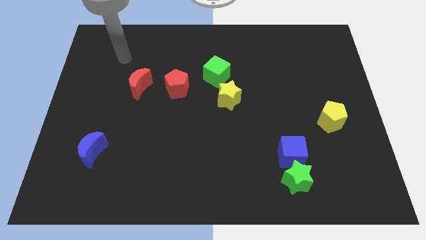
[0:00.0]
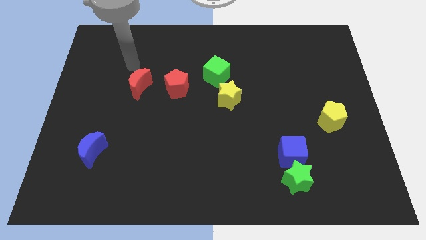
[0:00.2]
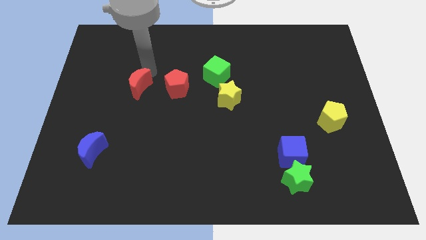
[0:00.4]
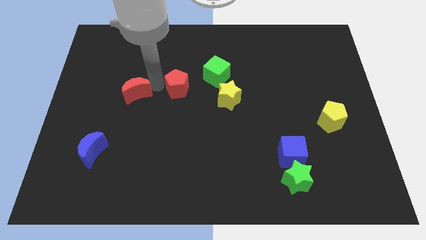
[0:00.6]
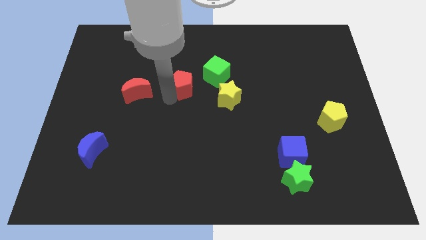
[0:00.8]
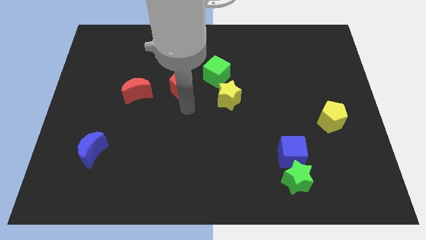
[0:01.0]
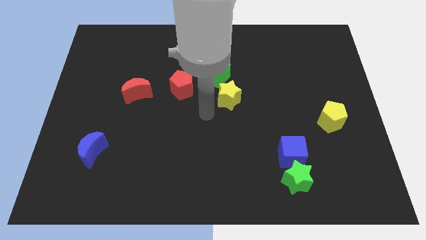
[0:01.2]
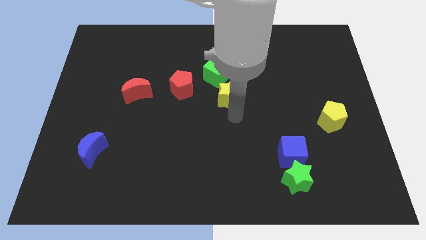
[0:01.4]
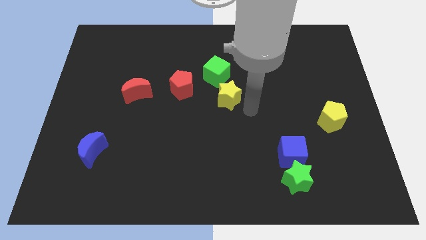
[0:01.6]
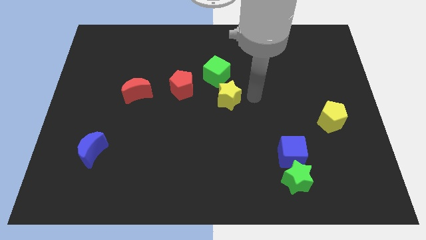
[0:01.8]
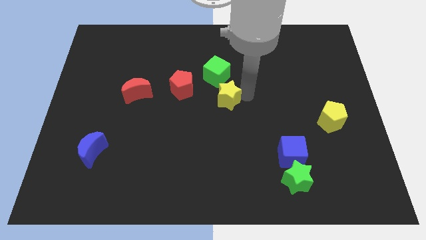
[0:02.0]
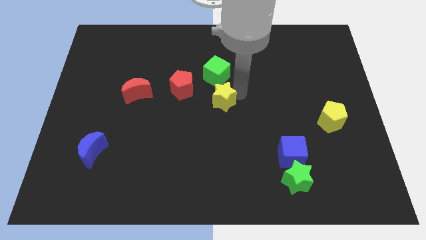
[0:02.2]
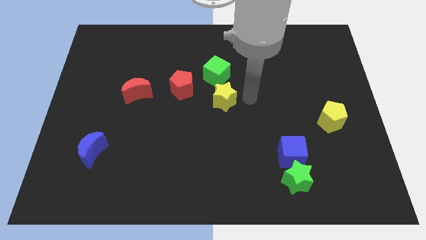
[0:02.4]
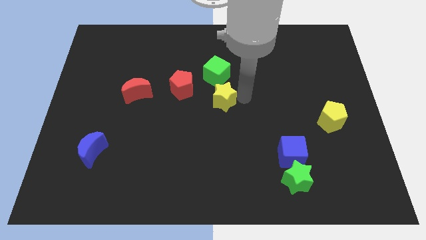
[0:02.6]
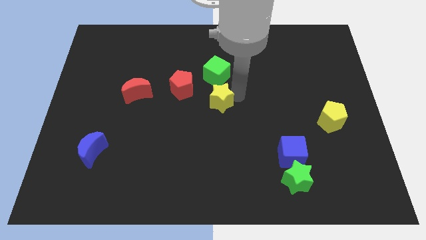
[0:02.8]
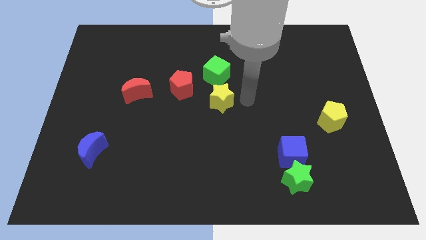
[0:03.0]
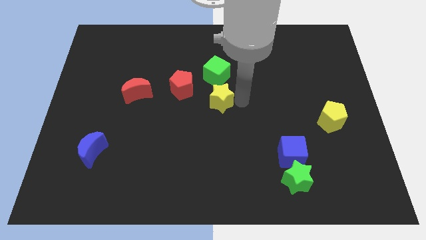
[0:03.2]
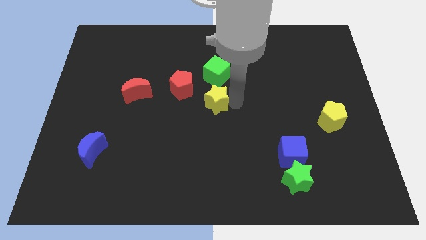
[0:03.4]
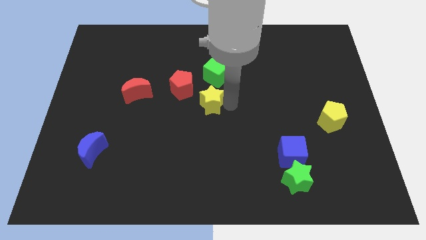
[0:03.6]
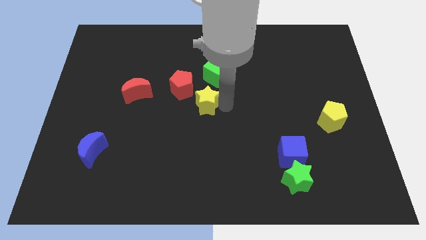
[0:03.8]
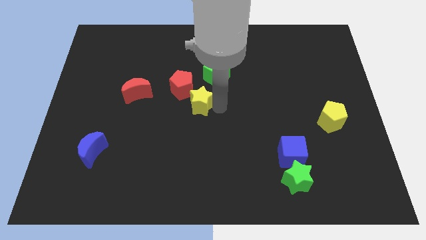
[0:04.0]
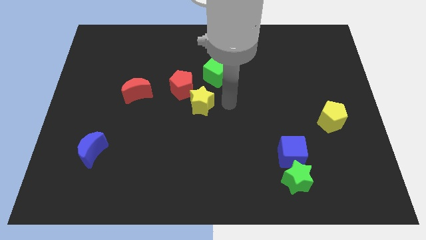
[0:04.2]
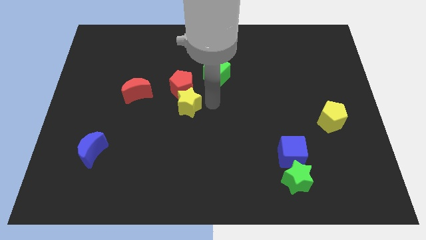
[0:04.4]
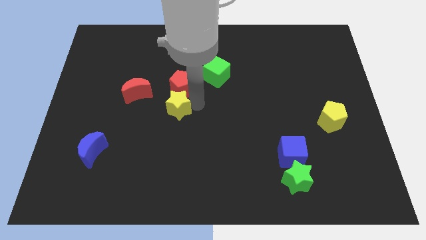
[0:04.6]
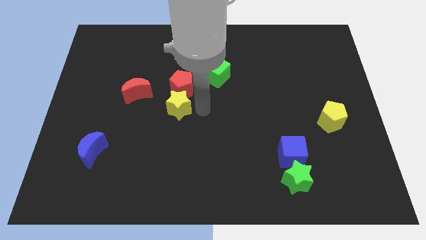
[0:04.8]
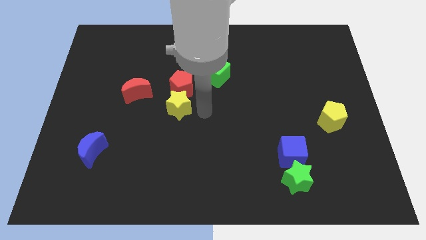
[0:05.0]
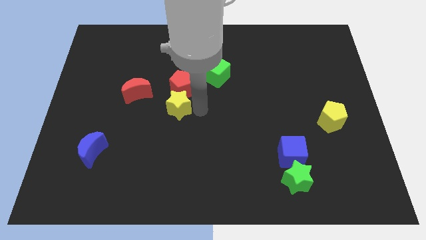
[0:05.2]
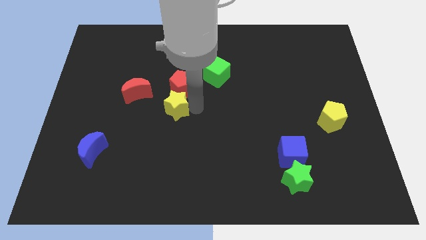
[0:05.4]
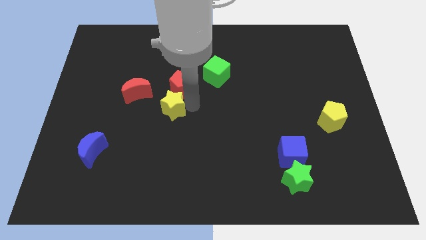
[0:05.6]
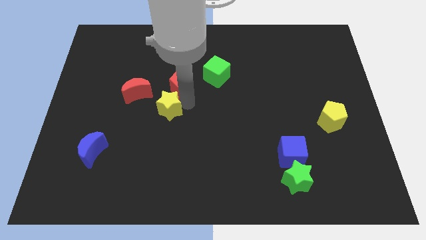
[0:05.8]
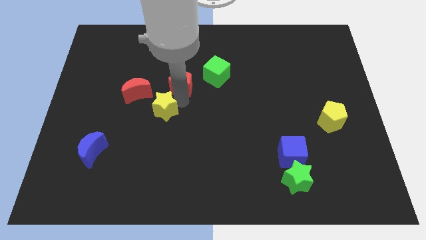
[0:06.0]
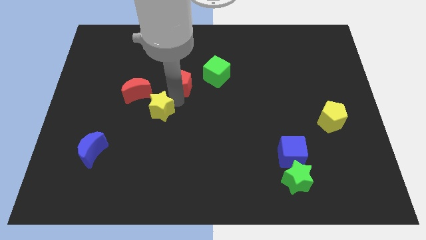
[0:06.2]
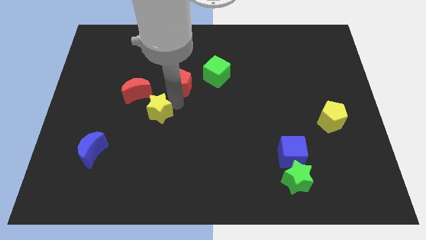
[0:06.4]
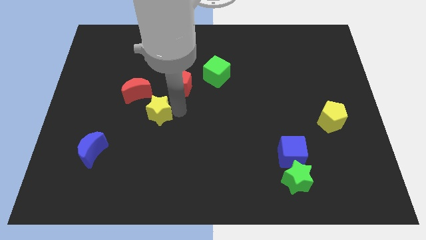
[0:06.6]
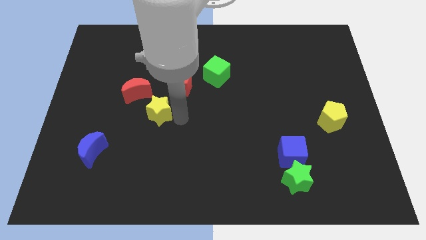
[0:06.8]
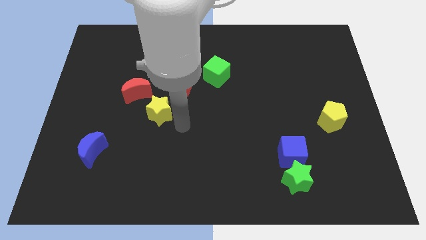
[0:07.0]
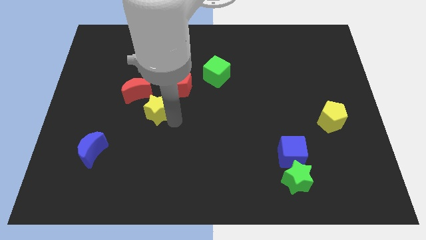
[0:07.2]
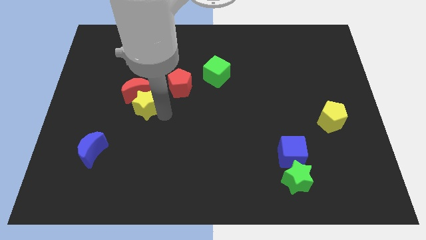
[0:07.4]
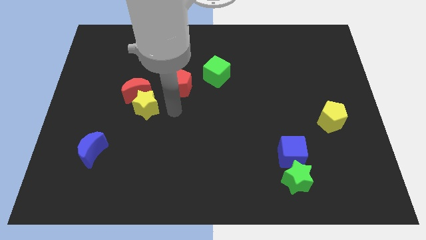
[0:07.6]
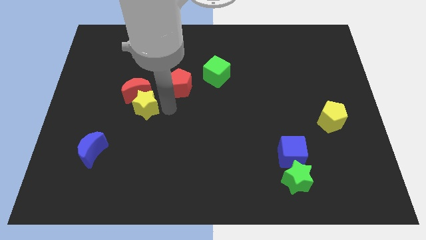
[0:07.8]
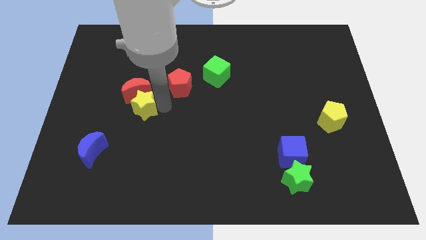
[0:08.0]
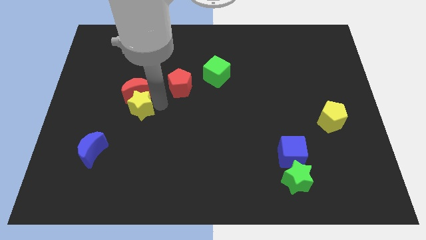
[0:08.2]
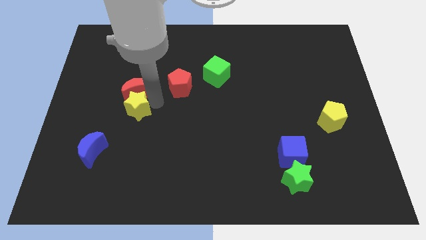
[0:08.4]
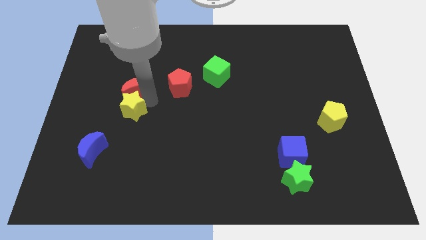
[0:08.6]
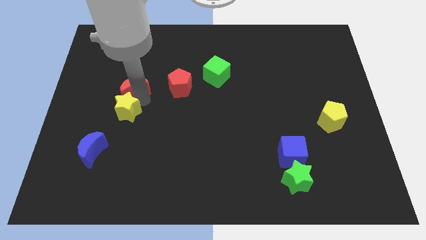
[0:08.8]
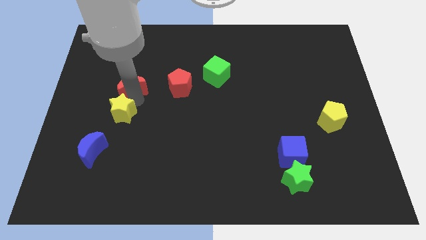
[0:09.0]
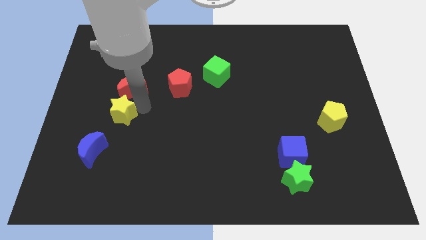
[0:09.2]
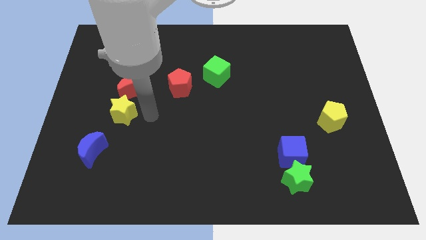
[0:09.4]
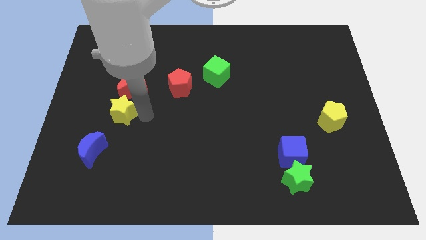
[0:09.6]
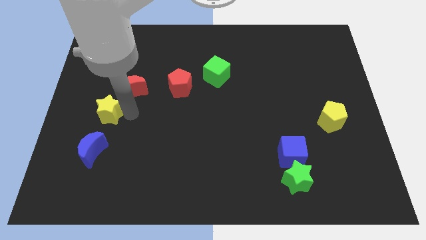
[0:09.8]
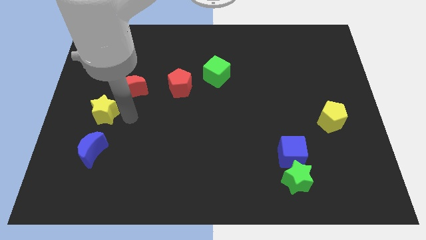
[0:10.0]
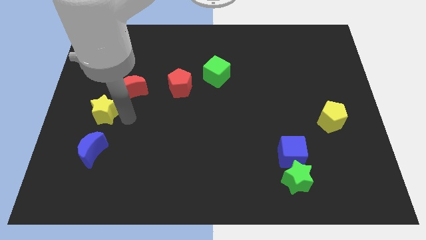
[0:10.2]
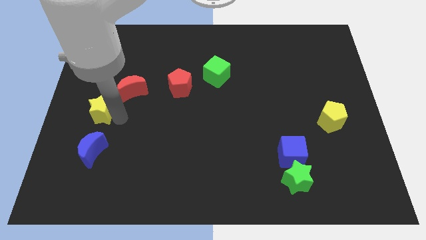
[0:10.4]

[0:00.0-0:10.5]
move the yellow star to the left side of the board

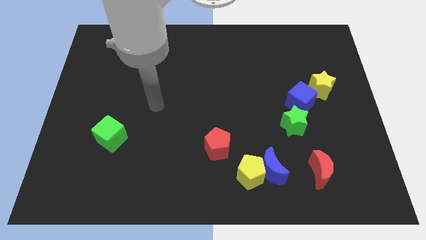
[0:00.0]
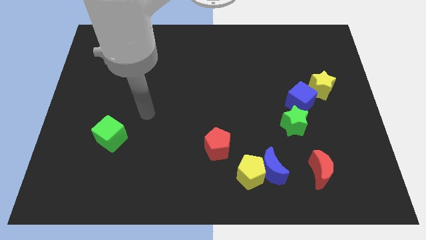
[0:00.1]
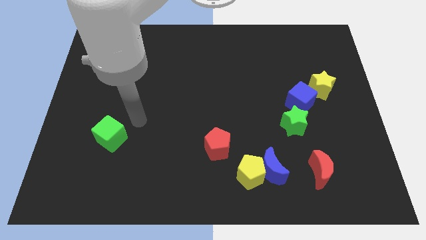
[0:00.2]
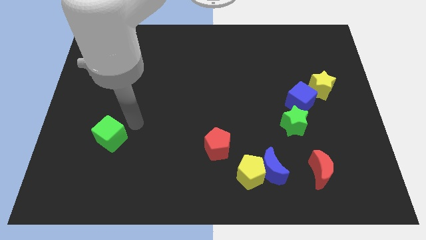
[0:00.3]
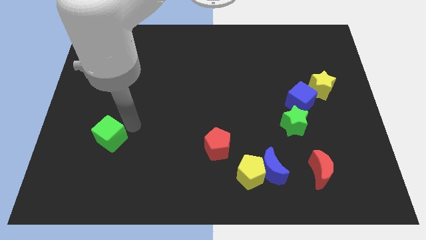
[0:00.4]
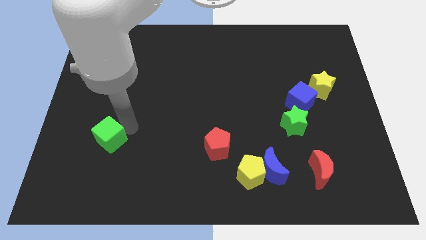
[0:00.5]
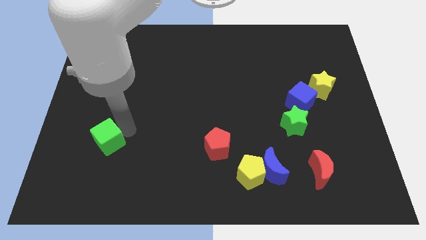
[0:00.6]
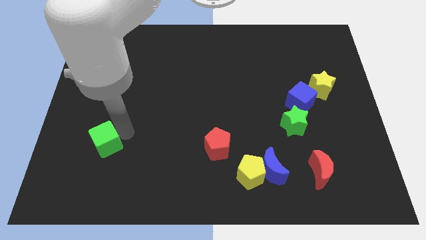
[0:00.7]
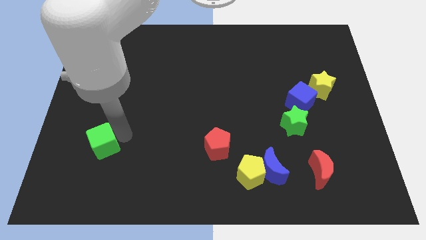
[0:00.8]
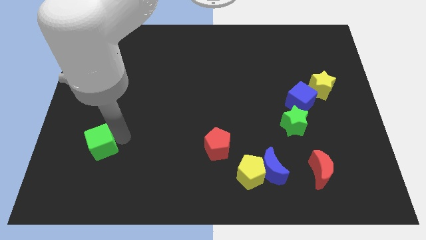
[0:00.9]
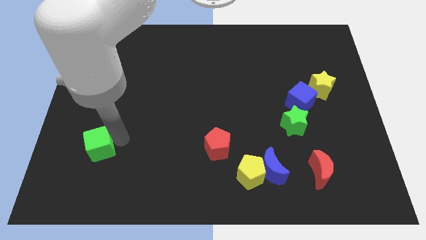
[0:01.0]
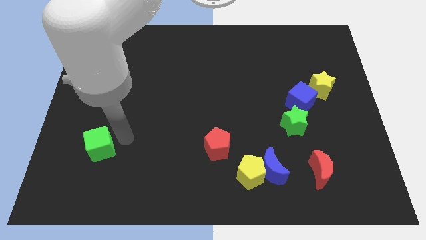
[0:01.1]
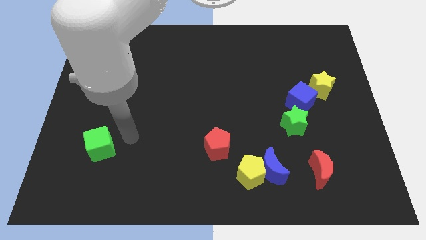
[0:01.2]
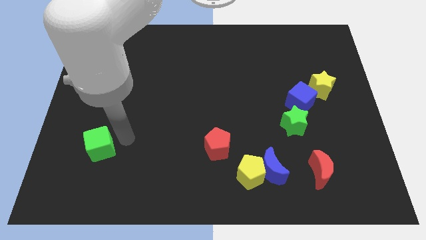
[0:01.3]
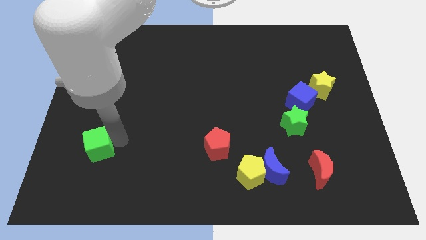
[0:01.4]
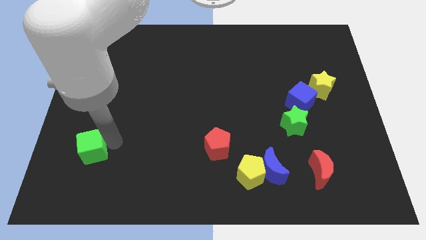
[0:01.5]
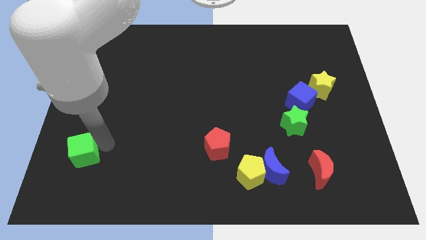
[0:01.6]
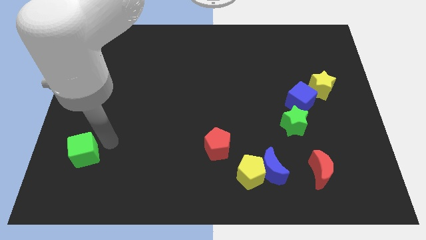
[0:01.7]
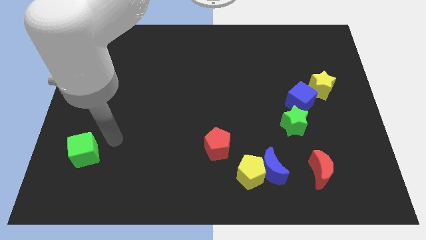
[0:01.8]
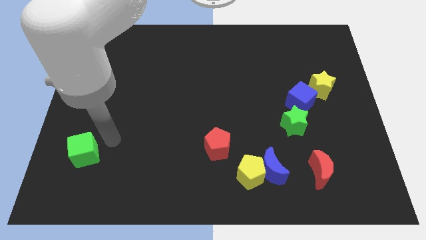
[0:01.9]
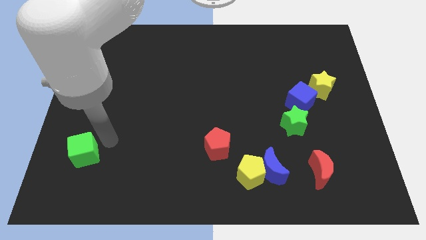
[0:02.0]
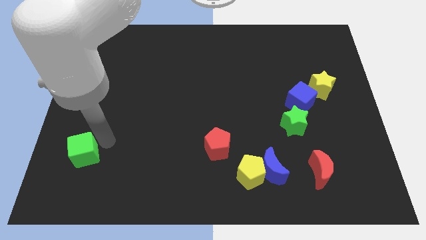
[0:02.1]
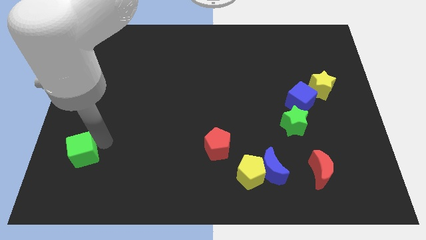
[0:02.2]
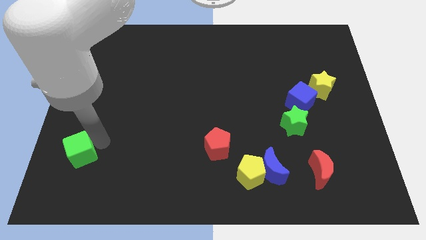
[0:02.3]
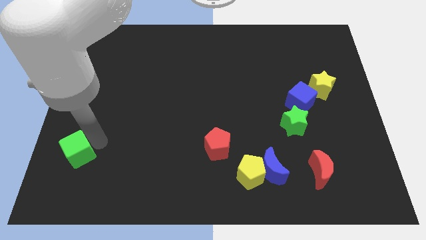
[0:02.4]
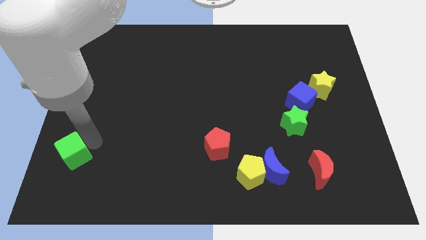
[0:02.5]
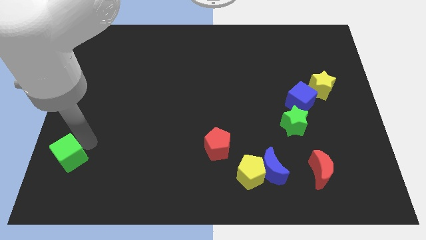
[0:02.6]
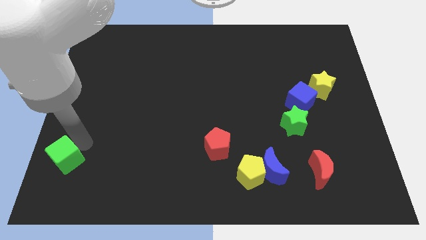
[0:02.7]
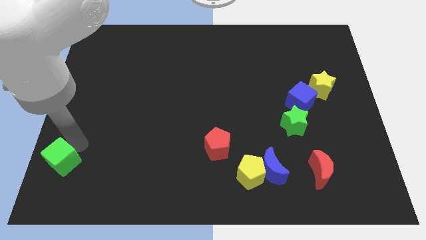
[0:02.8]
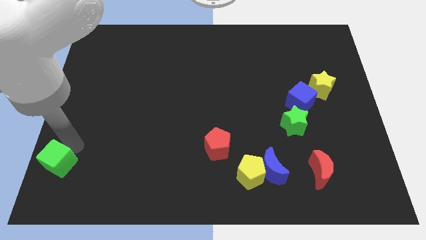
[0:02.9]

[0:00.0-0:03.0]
slide the green cube to the lower left corner
